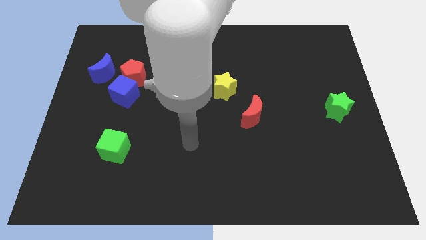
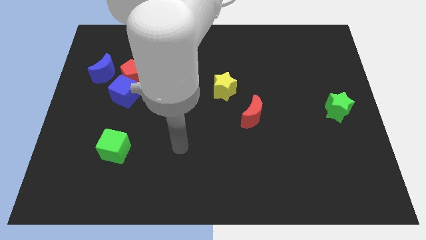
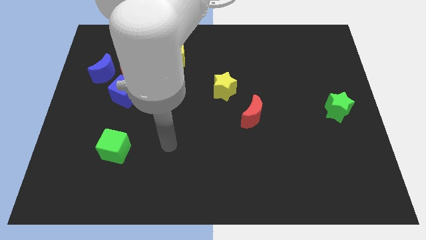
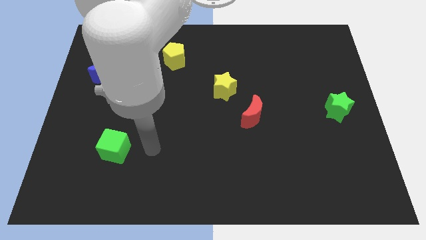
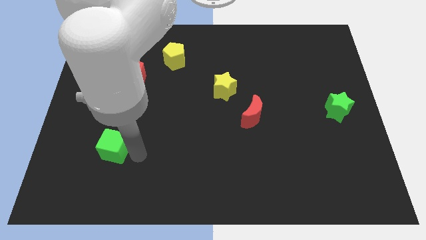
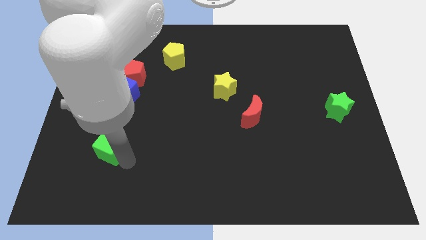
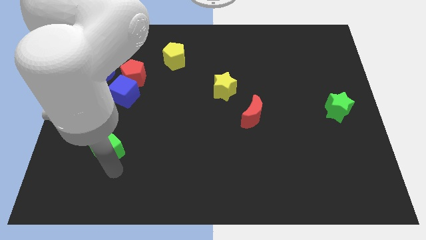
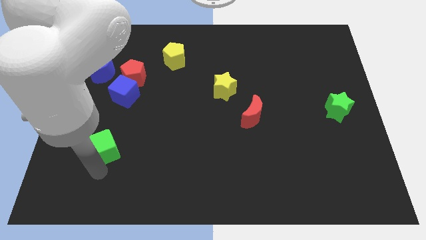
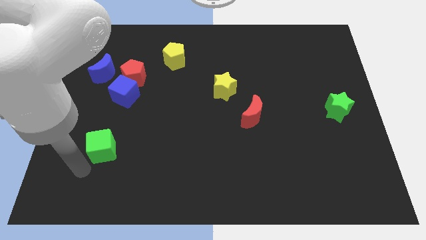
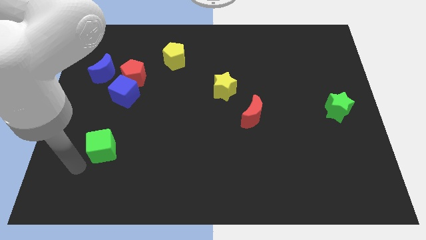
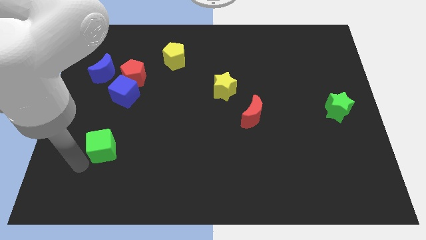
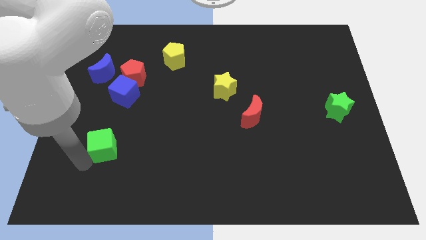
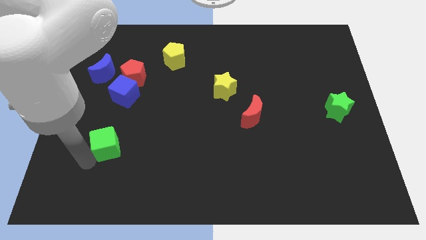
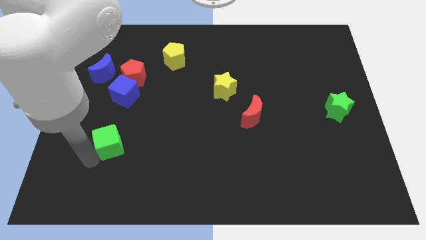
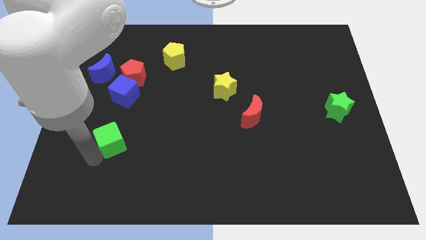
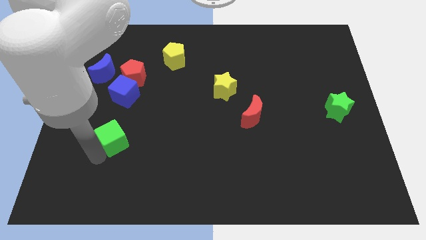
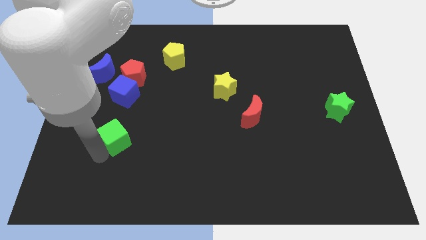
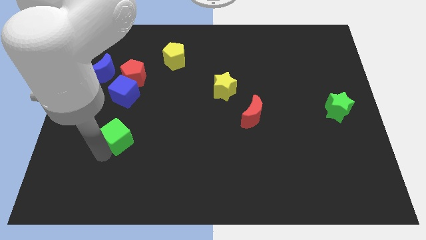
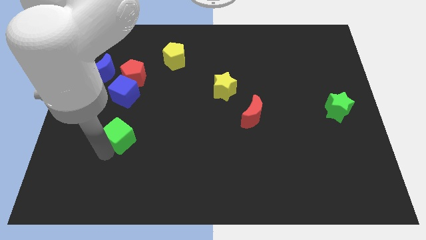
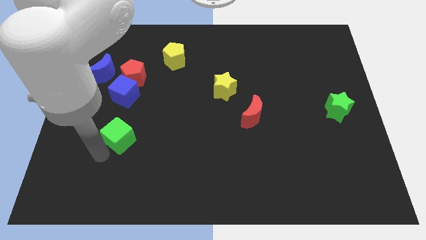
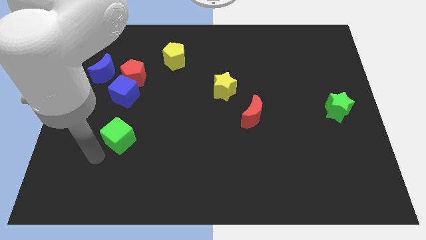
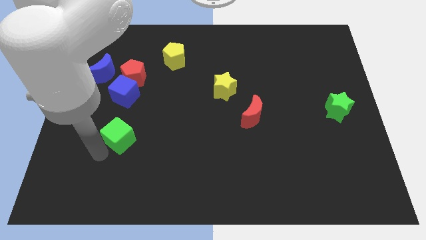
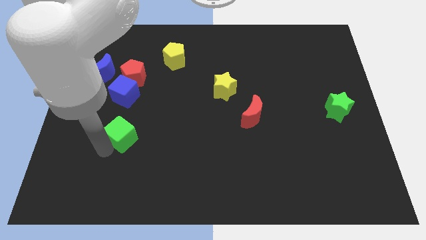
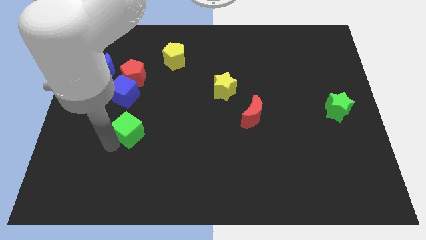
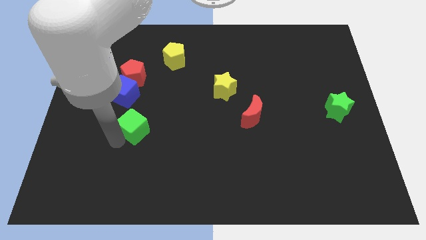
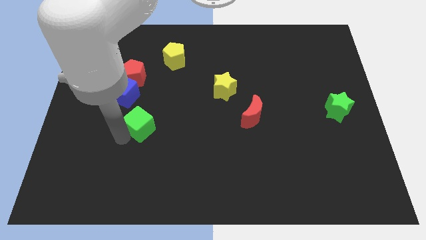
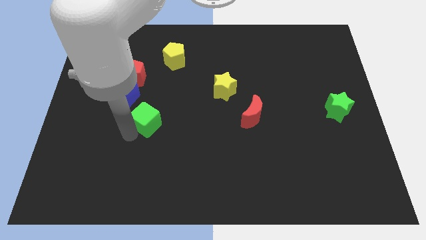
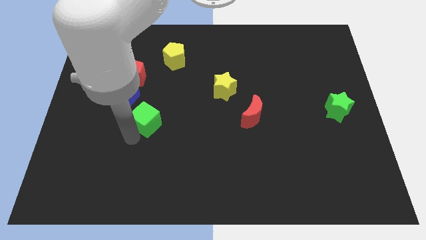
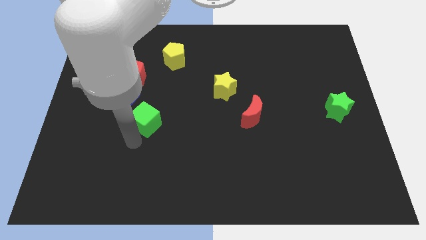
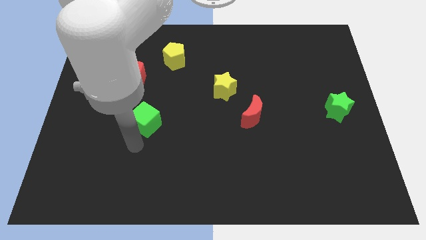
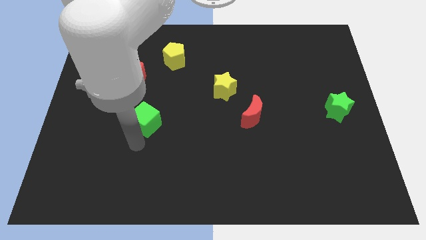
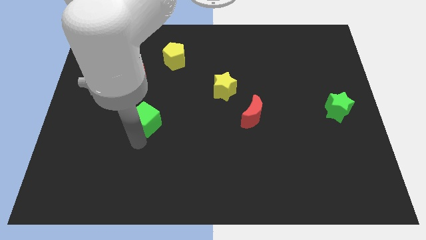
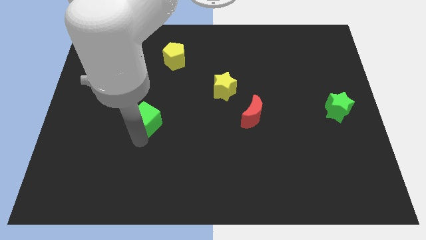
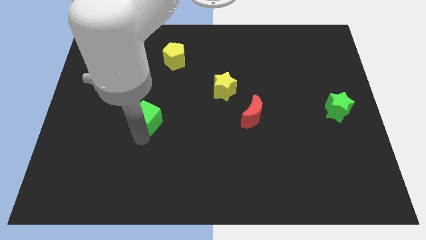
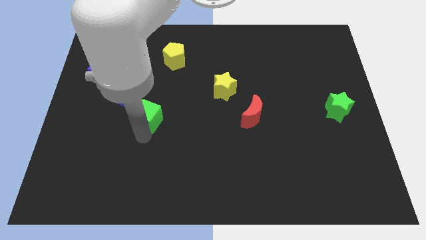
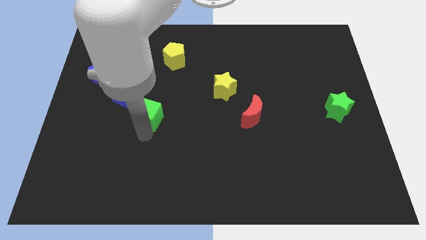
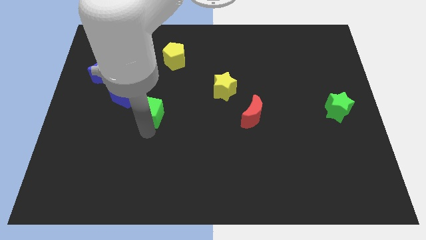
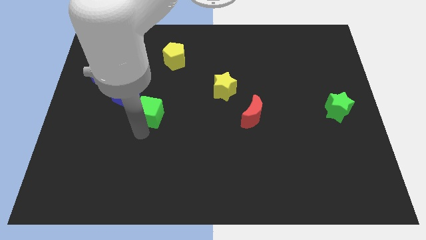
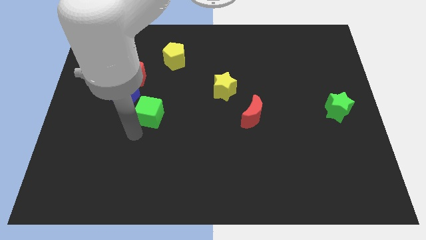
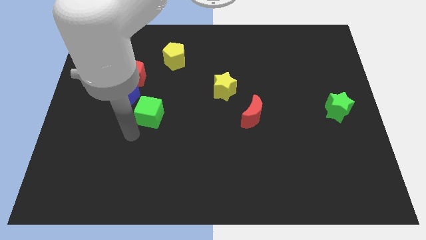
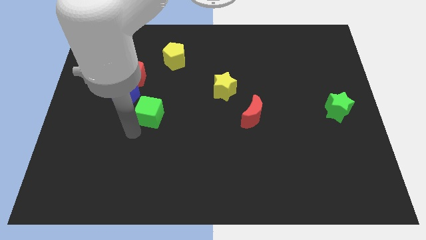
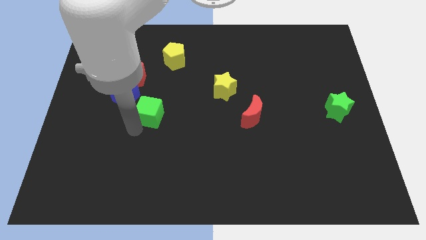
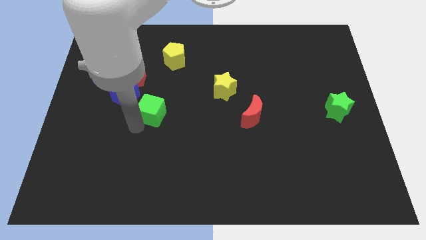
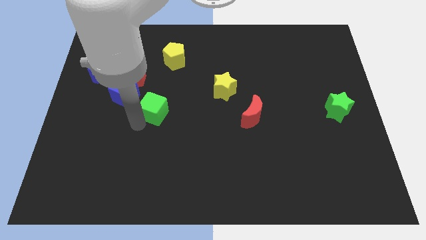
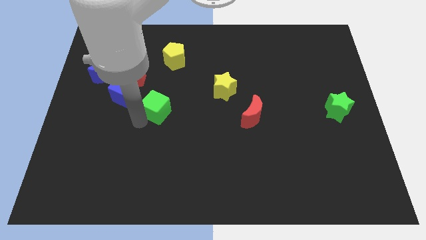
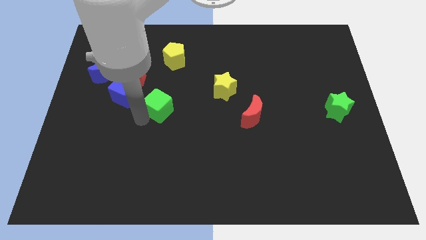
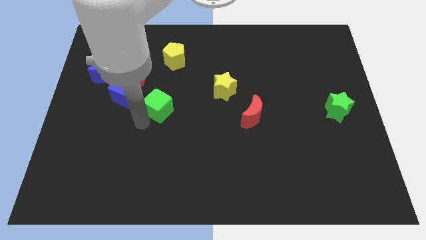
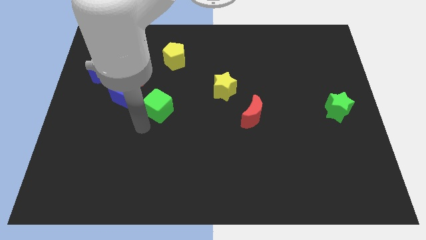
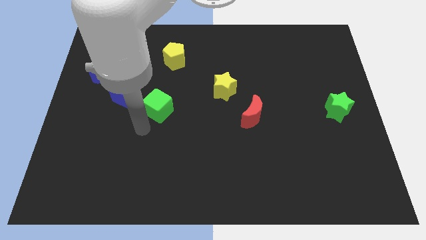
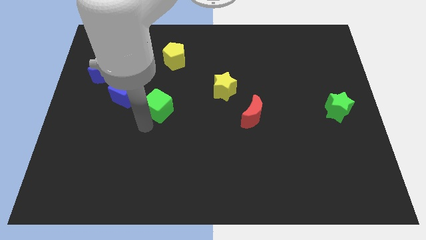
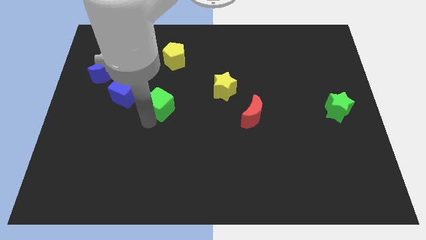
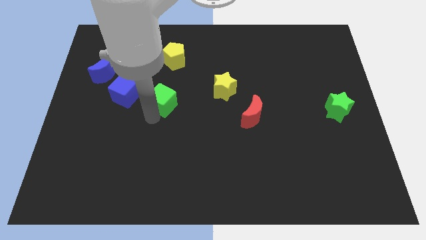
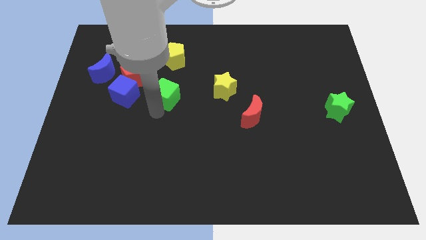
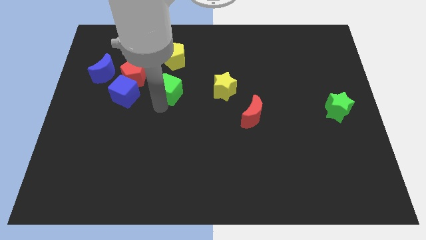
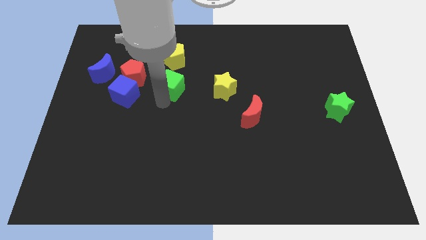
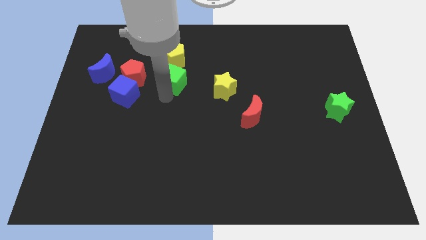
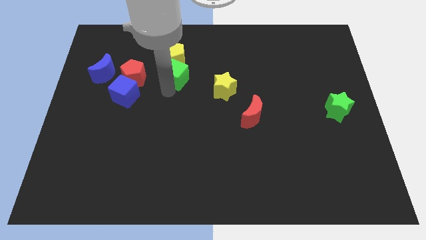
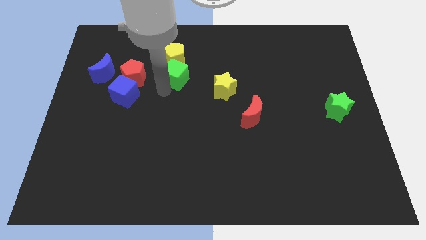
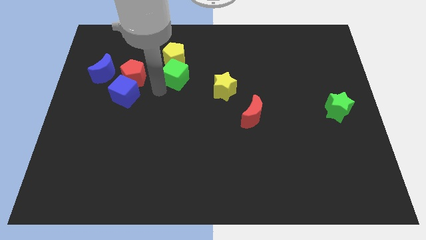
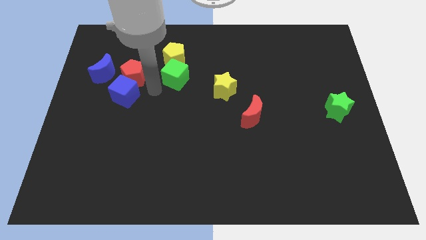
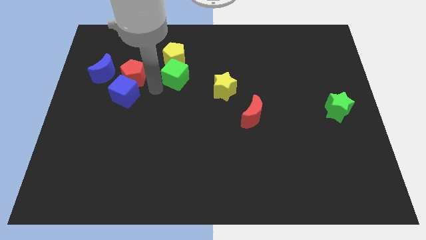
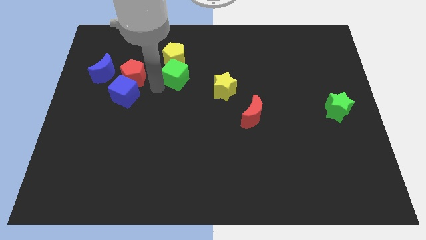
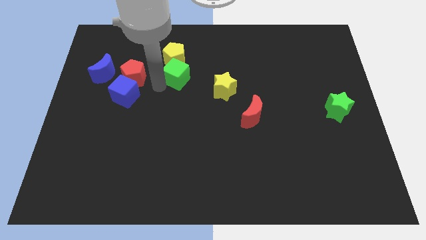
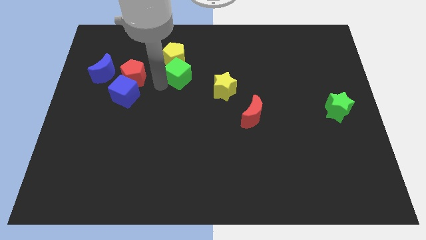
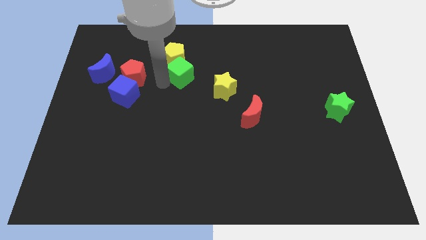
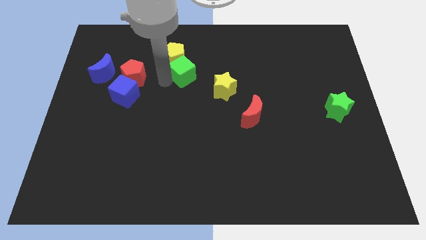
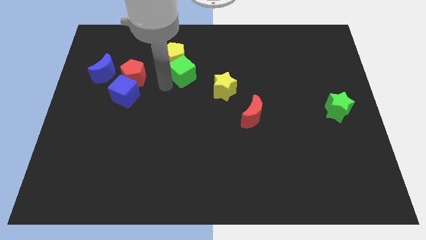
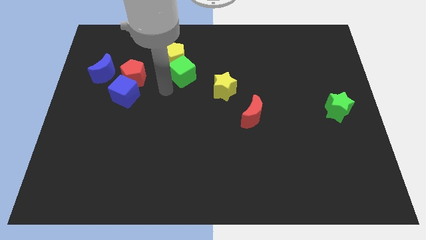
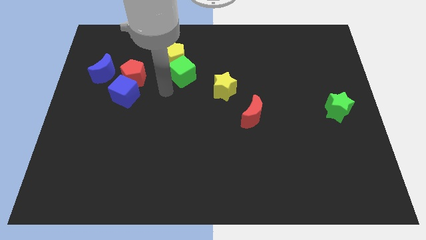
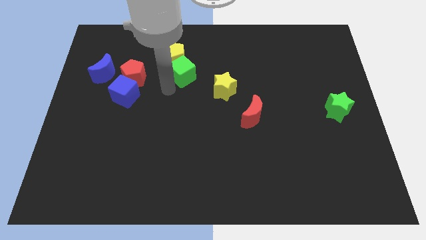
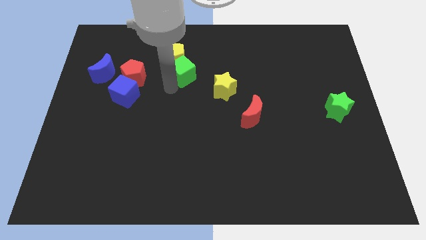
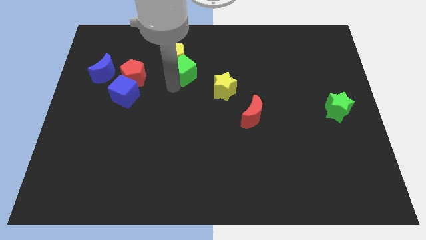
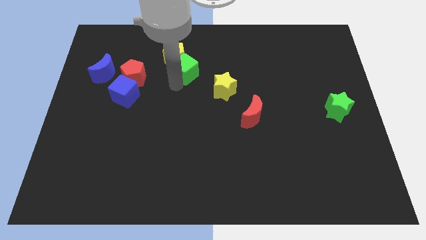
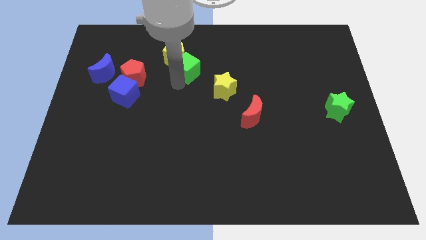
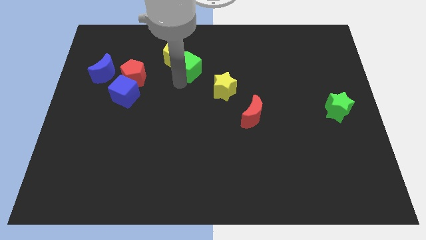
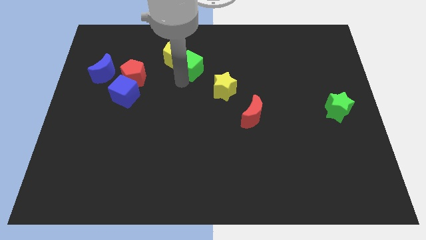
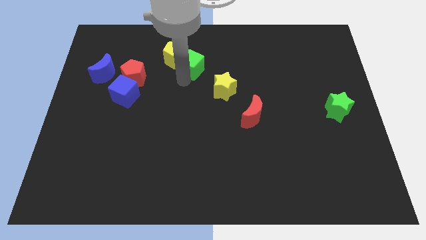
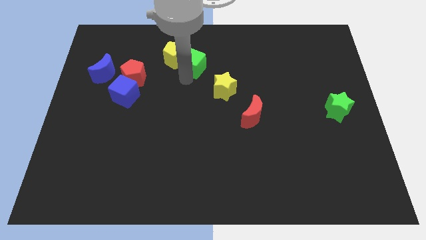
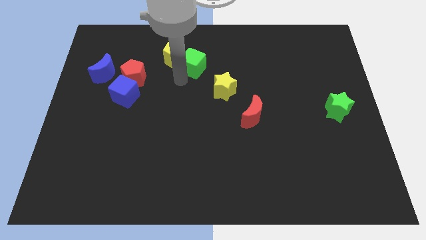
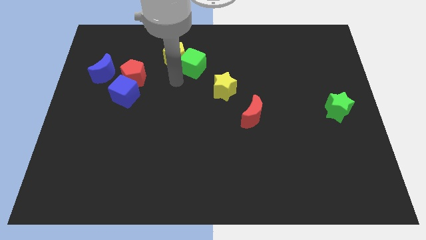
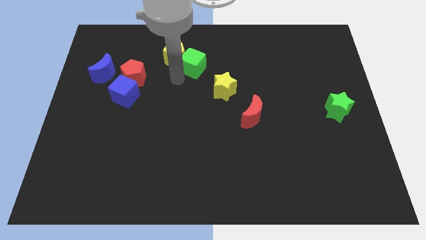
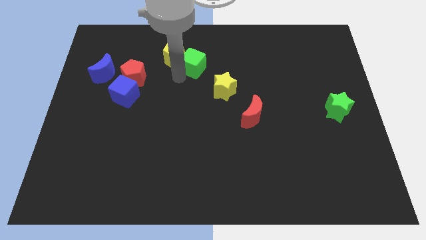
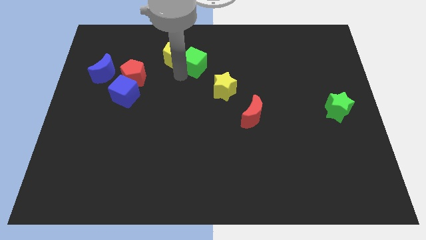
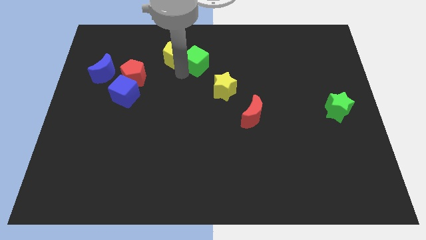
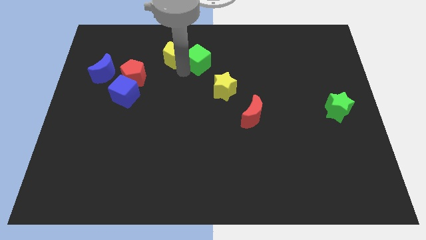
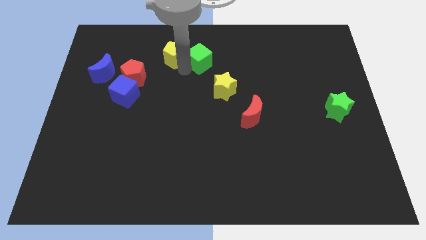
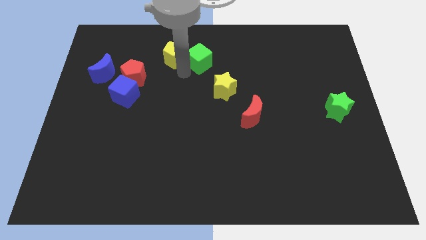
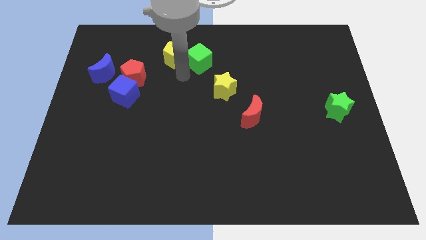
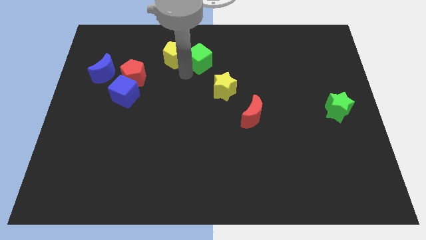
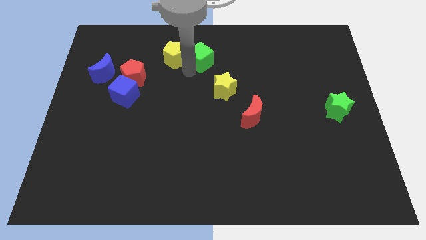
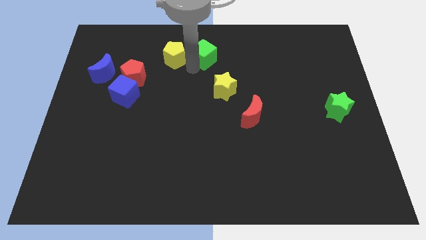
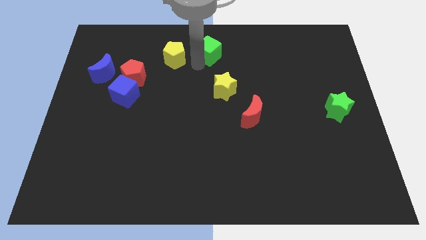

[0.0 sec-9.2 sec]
move the green cube to the top
